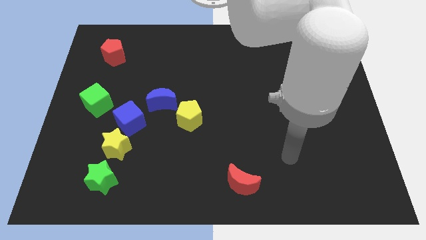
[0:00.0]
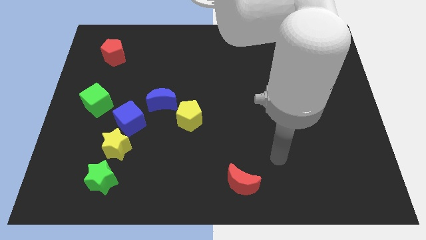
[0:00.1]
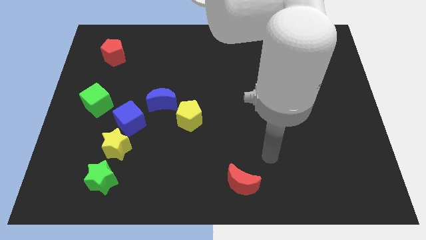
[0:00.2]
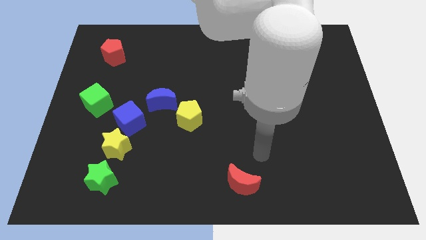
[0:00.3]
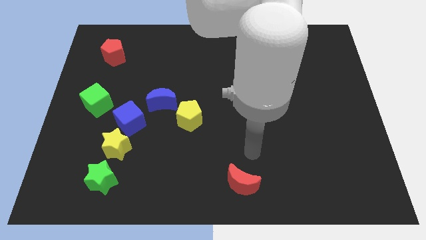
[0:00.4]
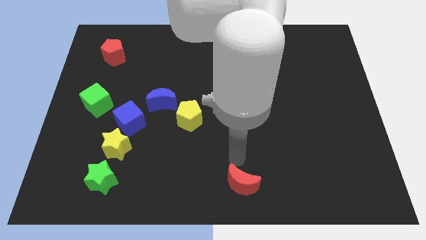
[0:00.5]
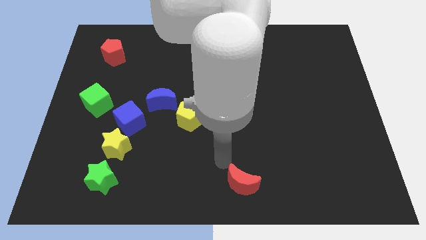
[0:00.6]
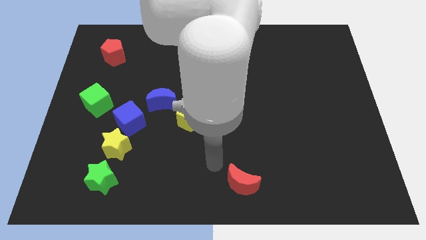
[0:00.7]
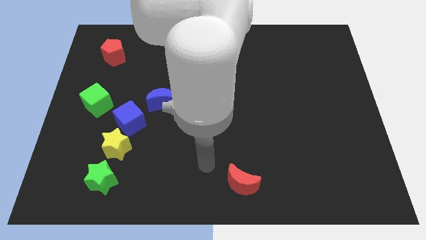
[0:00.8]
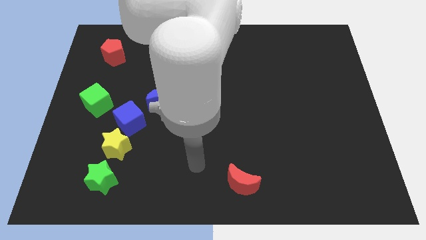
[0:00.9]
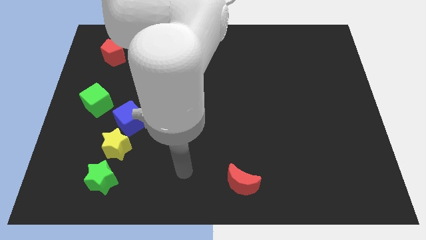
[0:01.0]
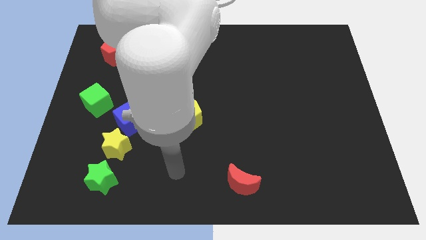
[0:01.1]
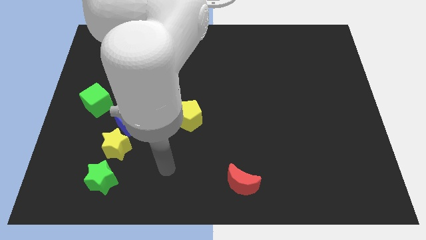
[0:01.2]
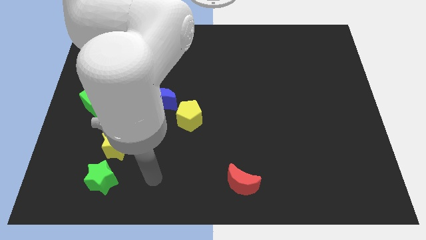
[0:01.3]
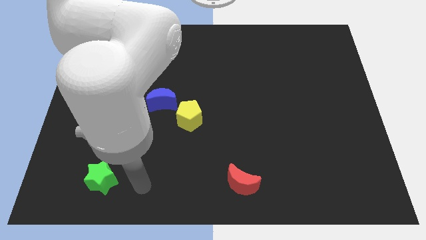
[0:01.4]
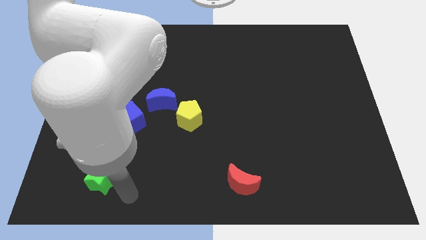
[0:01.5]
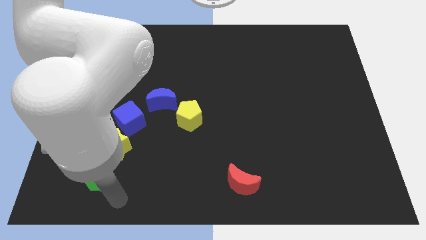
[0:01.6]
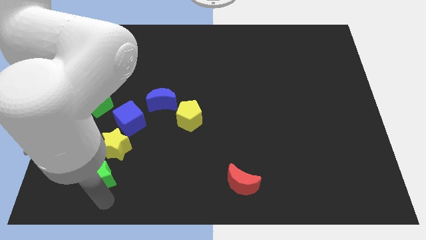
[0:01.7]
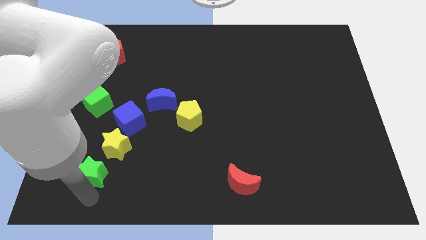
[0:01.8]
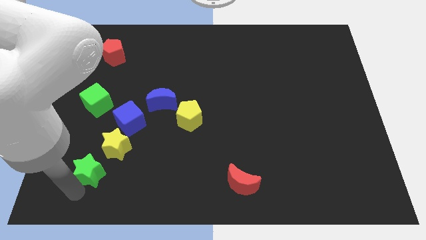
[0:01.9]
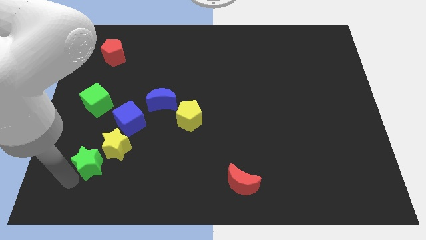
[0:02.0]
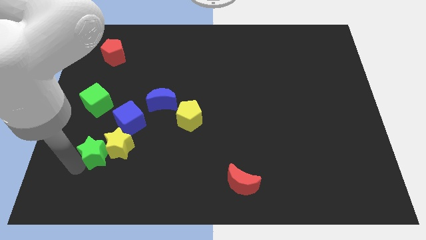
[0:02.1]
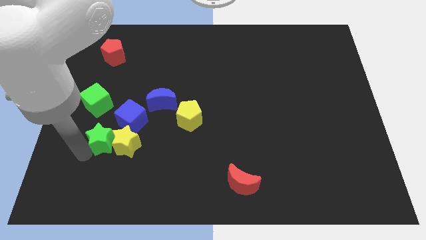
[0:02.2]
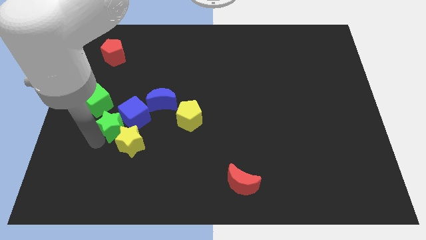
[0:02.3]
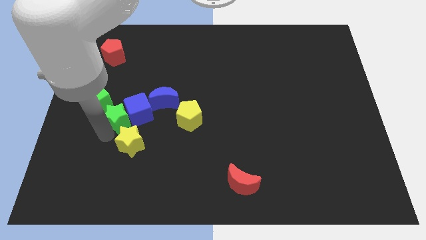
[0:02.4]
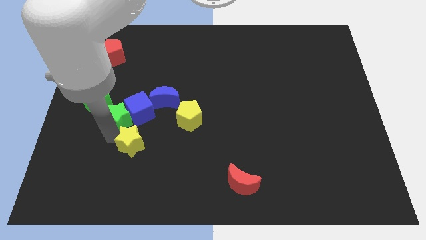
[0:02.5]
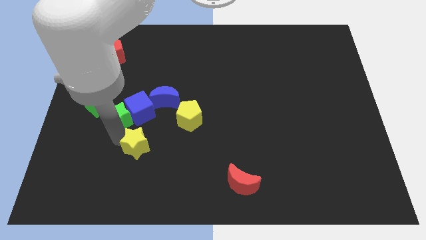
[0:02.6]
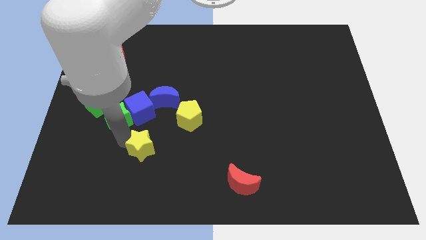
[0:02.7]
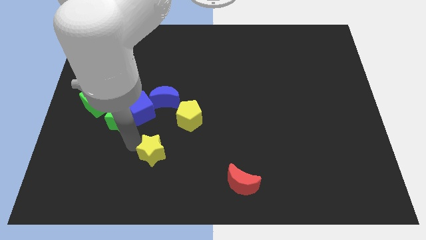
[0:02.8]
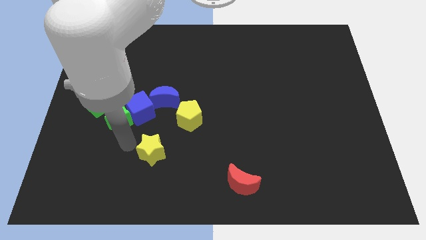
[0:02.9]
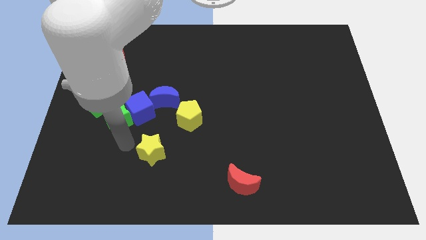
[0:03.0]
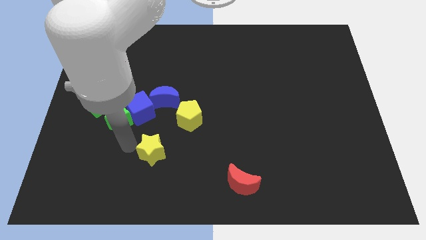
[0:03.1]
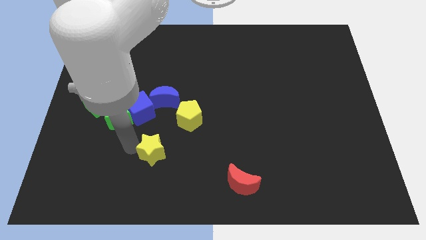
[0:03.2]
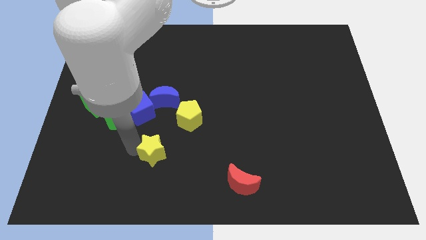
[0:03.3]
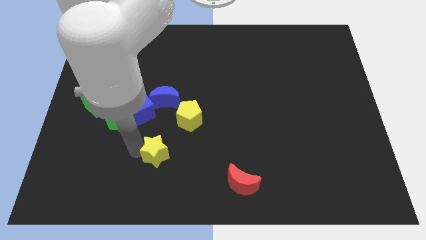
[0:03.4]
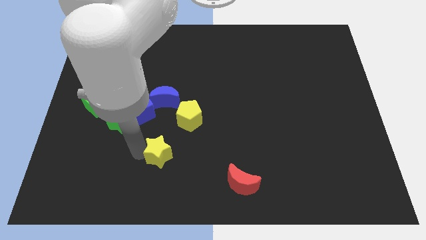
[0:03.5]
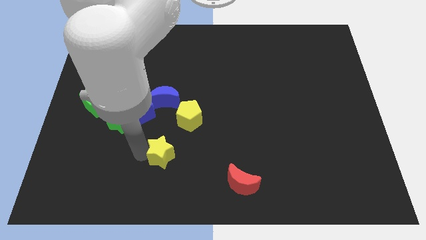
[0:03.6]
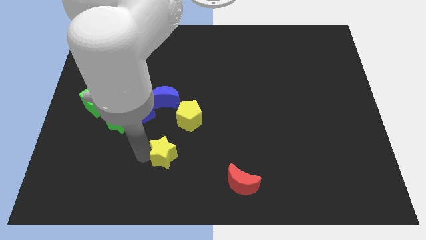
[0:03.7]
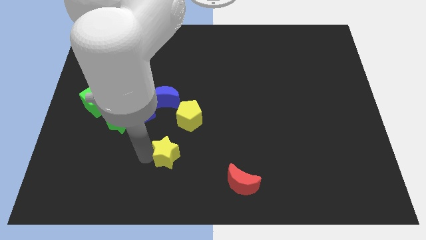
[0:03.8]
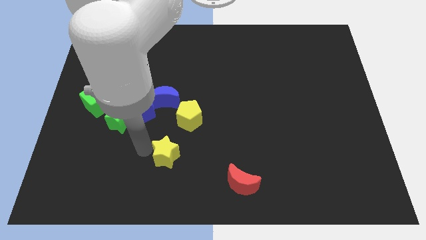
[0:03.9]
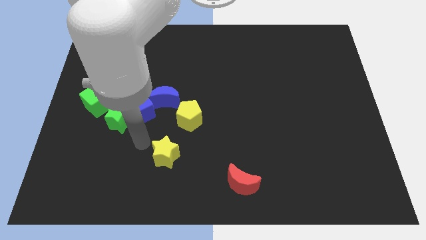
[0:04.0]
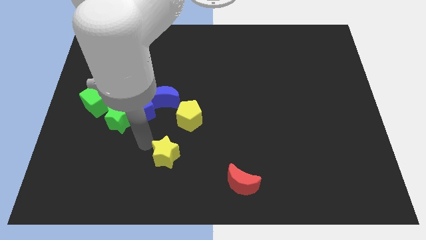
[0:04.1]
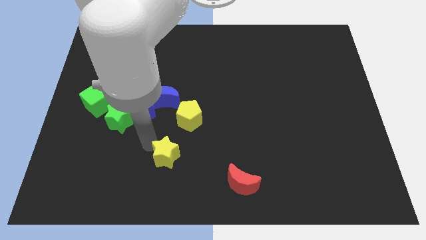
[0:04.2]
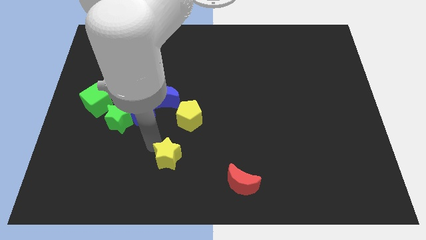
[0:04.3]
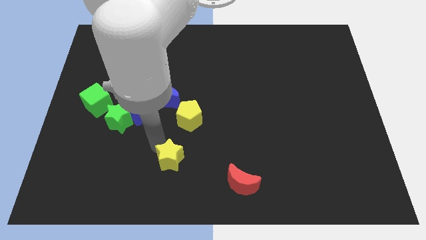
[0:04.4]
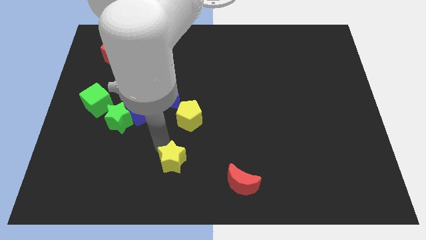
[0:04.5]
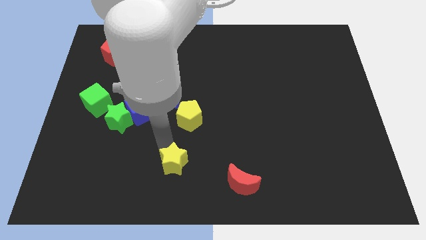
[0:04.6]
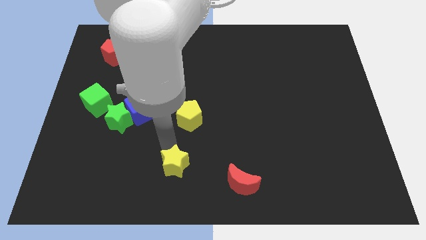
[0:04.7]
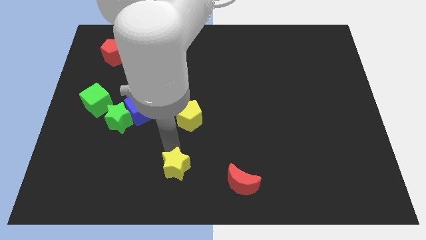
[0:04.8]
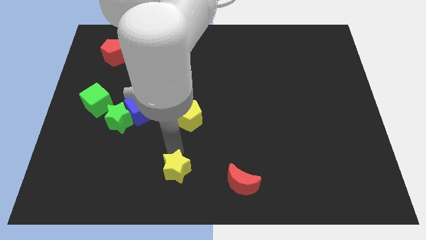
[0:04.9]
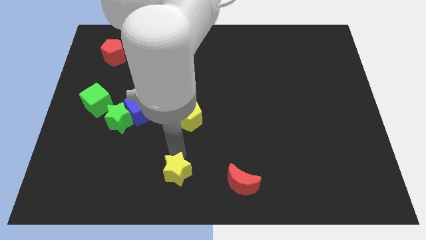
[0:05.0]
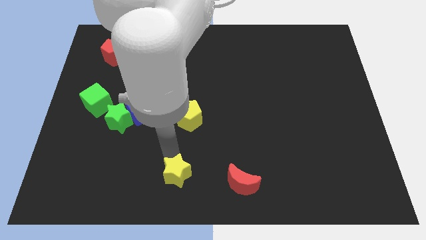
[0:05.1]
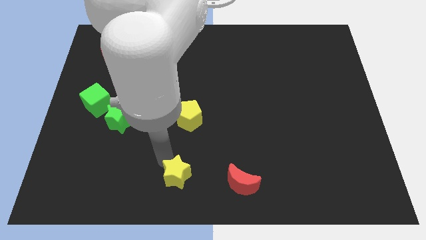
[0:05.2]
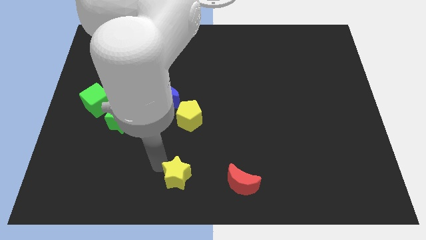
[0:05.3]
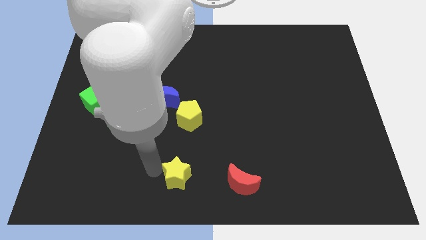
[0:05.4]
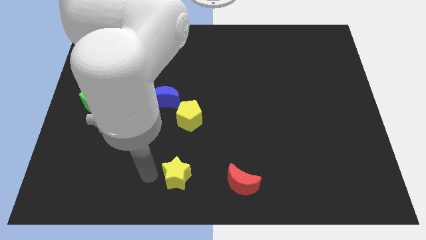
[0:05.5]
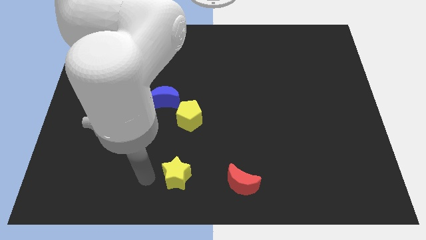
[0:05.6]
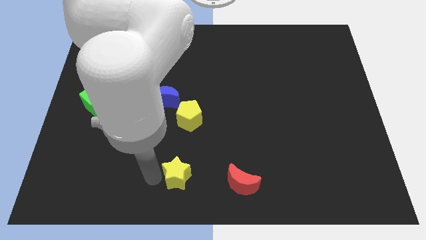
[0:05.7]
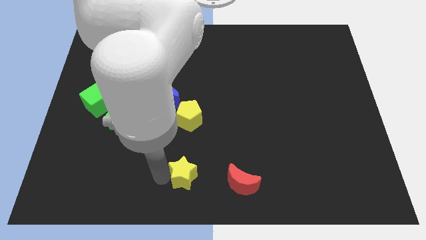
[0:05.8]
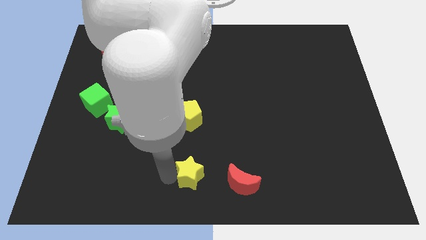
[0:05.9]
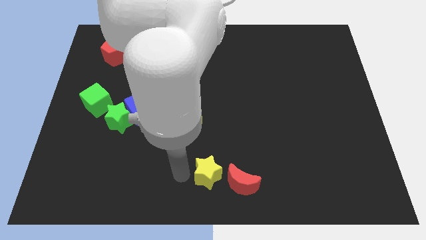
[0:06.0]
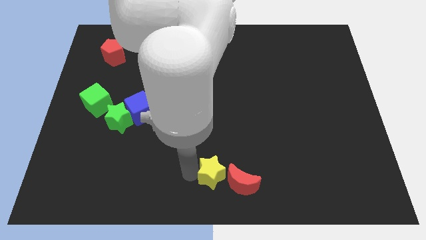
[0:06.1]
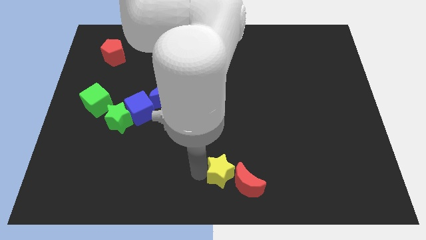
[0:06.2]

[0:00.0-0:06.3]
slide the yellow star next to the red moon

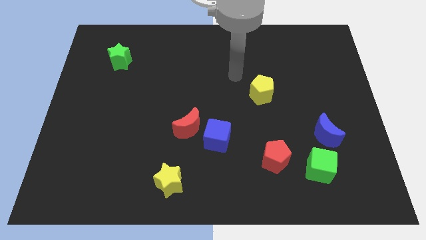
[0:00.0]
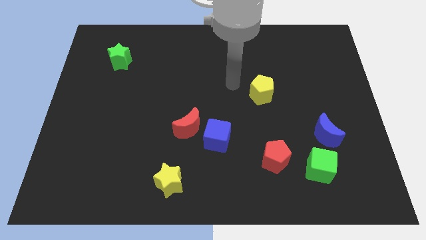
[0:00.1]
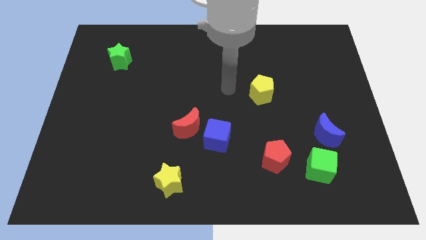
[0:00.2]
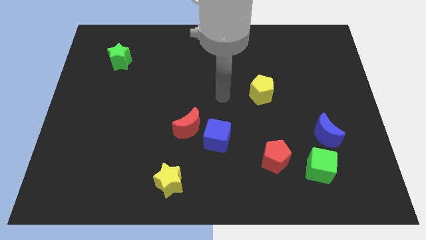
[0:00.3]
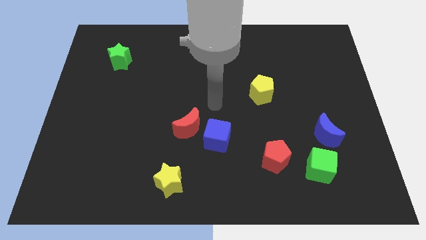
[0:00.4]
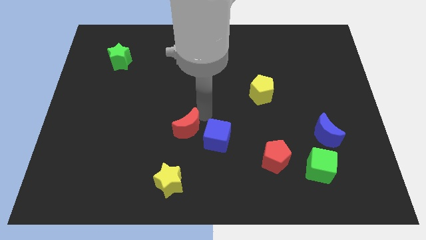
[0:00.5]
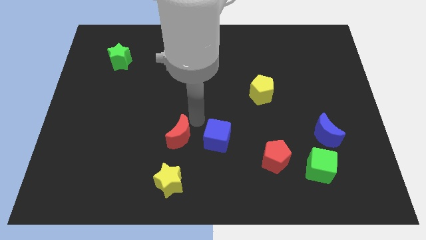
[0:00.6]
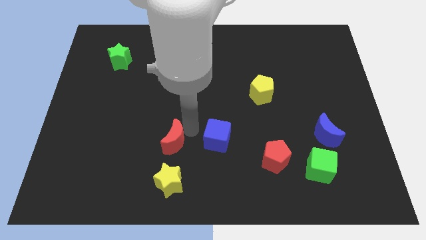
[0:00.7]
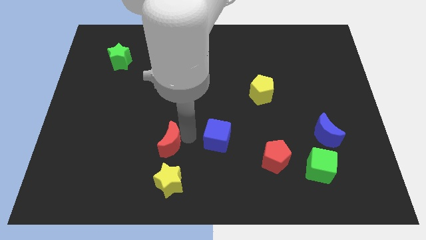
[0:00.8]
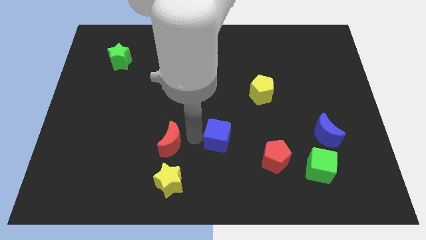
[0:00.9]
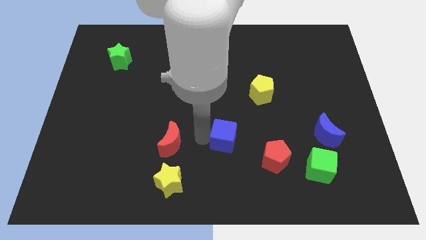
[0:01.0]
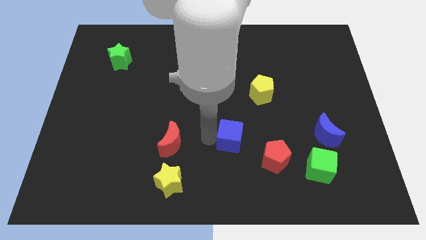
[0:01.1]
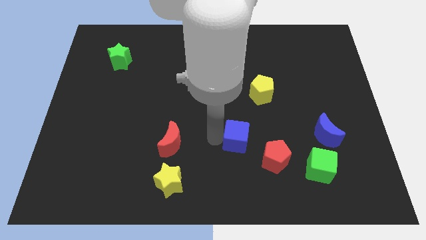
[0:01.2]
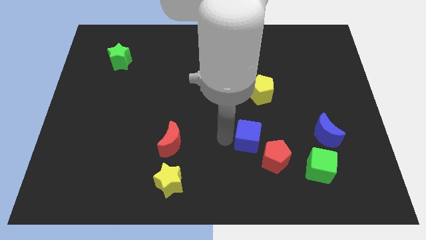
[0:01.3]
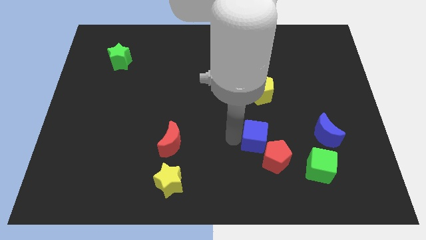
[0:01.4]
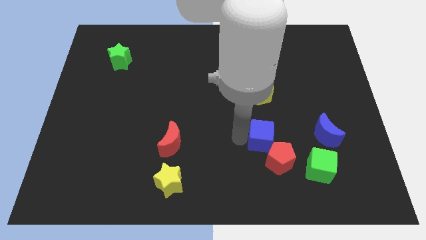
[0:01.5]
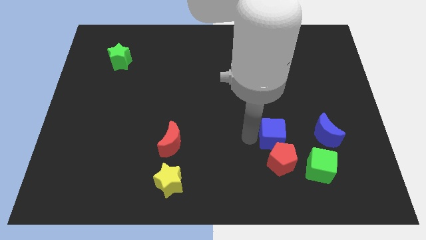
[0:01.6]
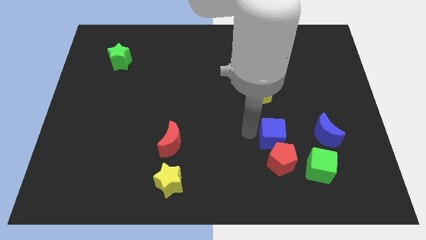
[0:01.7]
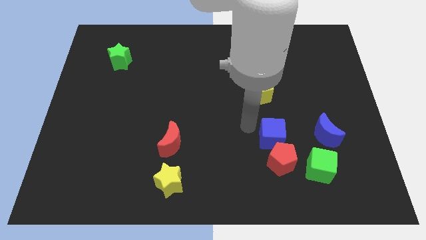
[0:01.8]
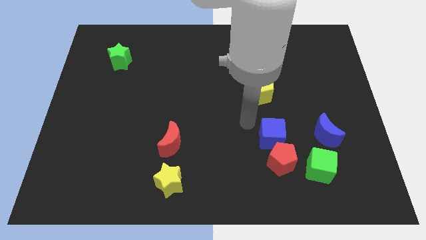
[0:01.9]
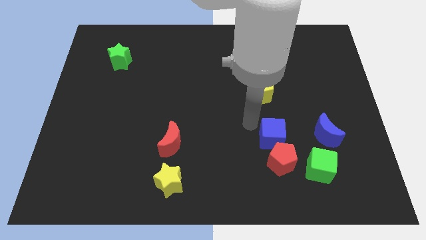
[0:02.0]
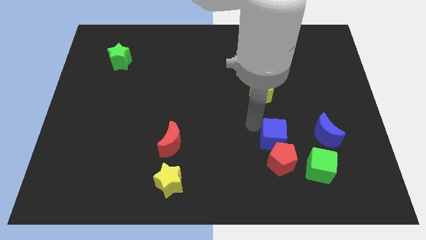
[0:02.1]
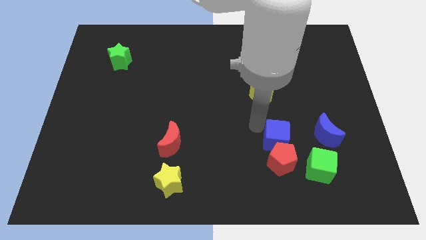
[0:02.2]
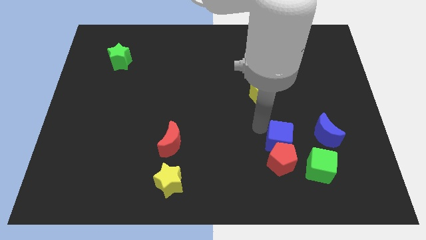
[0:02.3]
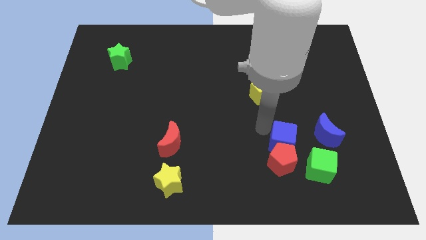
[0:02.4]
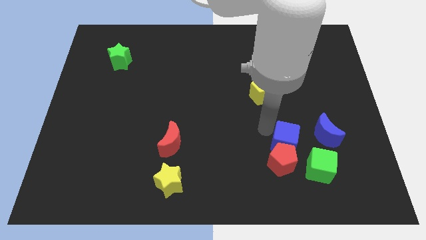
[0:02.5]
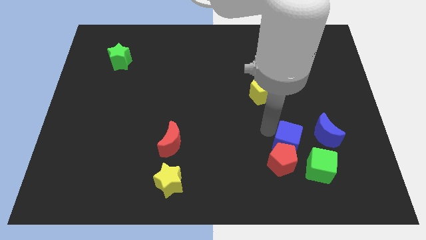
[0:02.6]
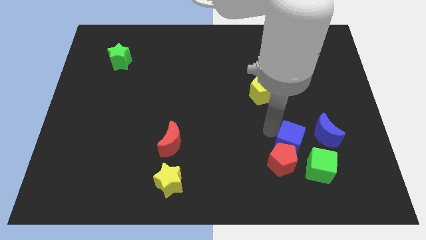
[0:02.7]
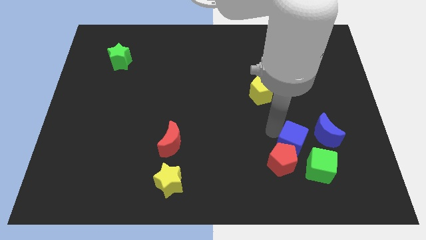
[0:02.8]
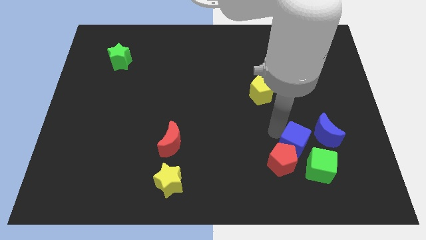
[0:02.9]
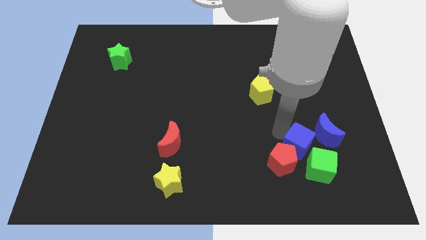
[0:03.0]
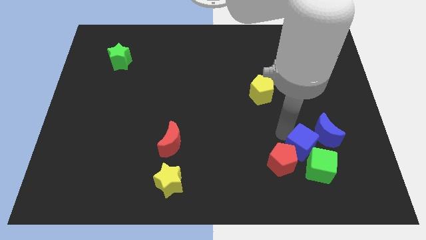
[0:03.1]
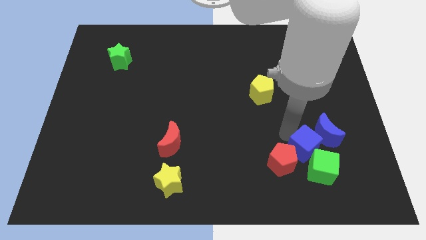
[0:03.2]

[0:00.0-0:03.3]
push the blue cube towards the green cube
